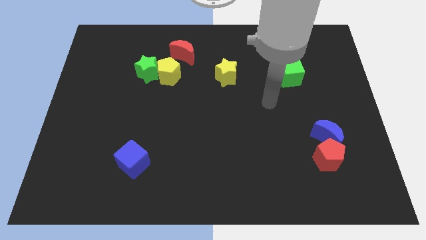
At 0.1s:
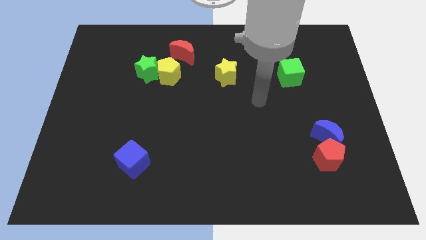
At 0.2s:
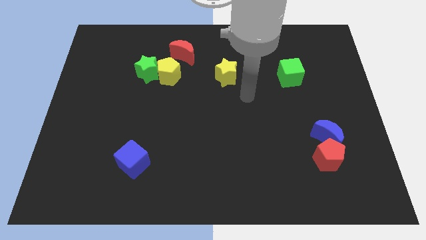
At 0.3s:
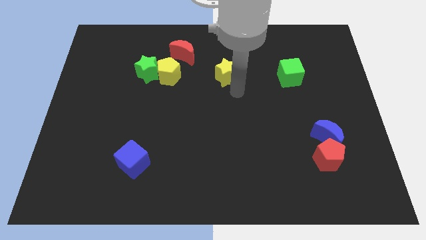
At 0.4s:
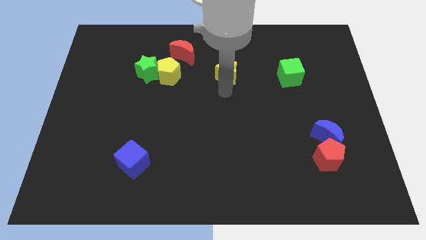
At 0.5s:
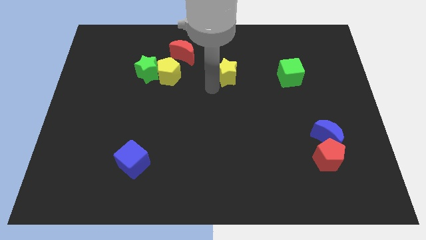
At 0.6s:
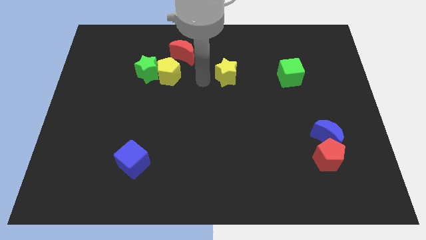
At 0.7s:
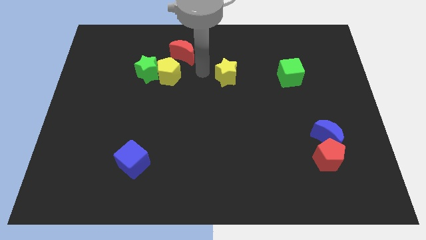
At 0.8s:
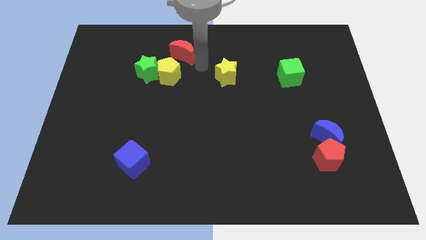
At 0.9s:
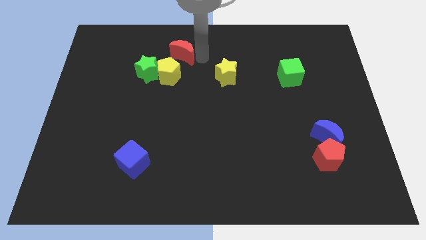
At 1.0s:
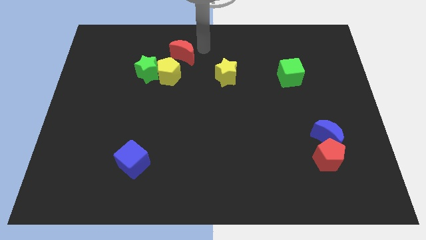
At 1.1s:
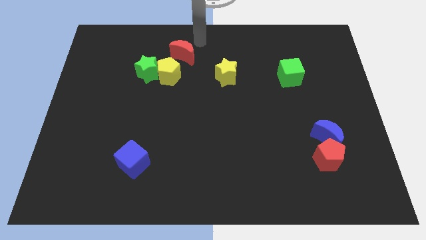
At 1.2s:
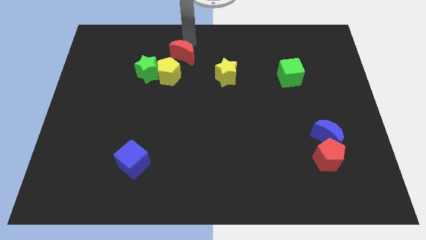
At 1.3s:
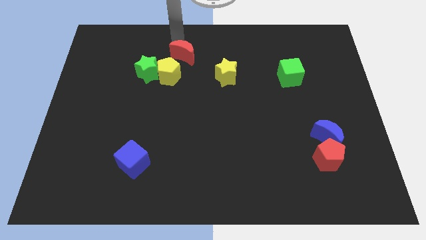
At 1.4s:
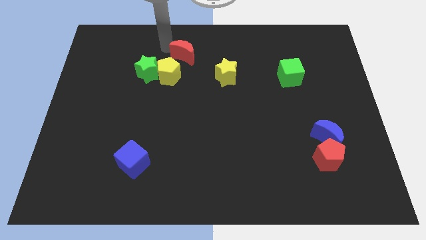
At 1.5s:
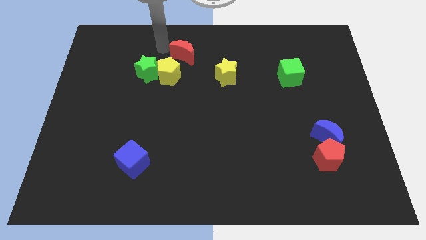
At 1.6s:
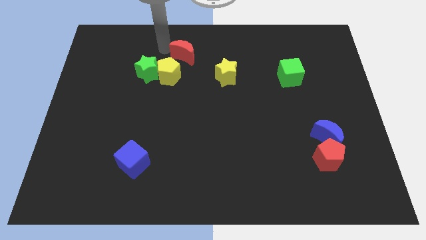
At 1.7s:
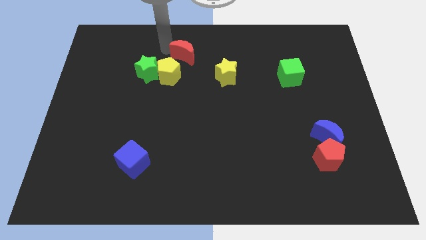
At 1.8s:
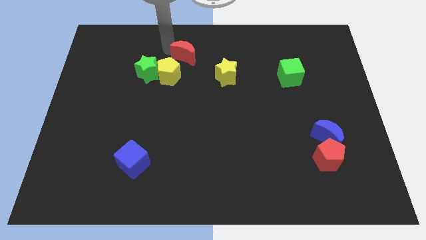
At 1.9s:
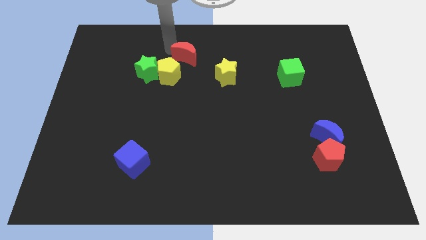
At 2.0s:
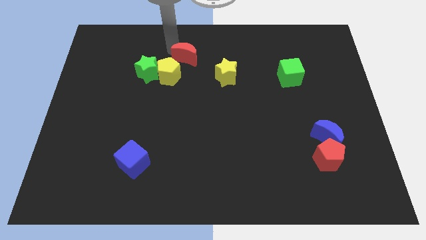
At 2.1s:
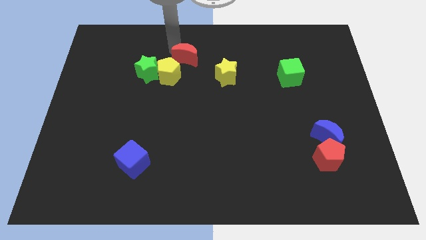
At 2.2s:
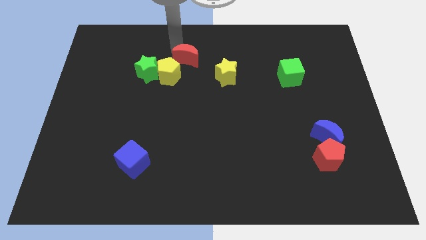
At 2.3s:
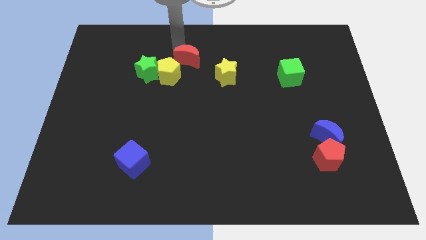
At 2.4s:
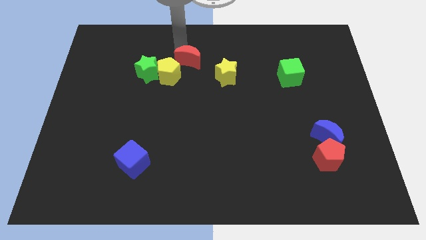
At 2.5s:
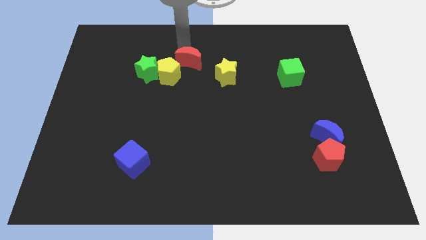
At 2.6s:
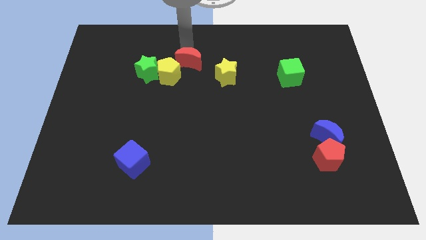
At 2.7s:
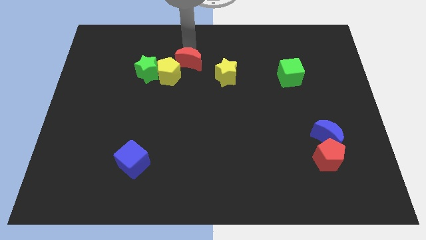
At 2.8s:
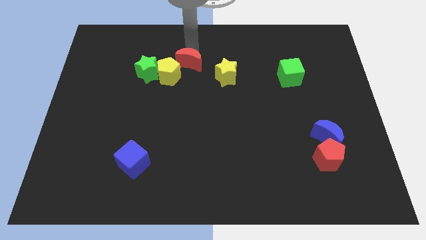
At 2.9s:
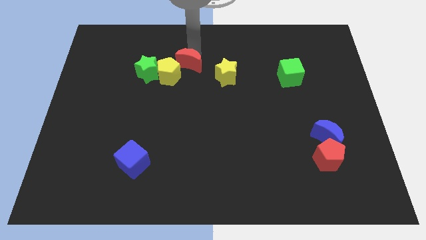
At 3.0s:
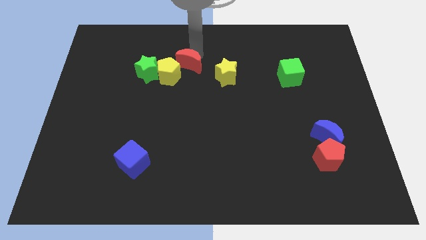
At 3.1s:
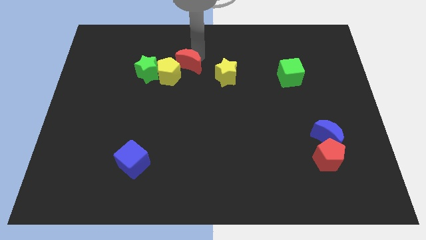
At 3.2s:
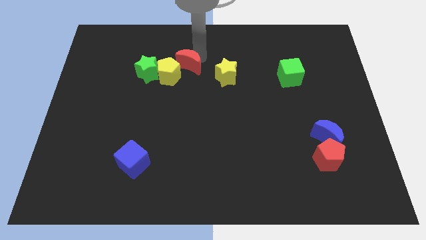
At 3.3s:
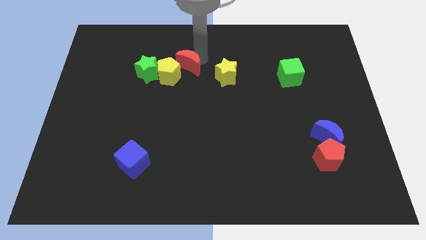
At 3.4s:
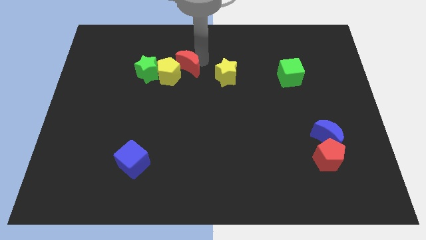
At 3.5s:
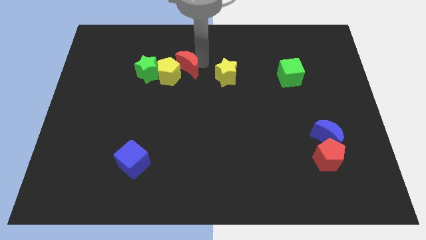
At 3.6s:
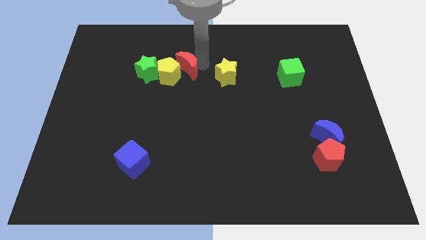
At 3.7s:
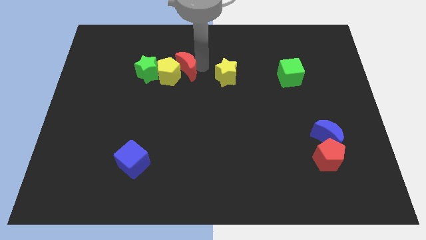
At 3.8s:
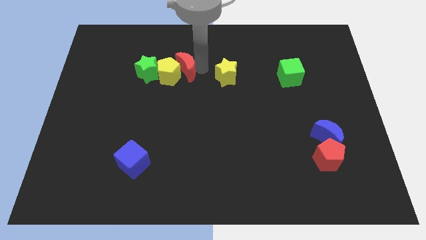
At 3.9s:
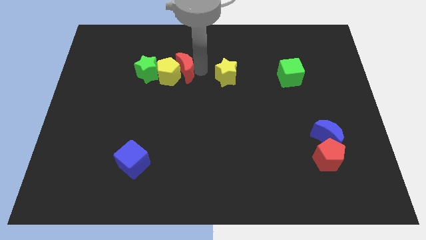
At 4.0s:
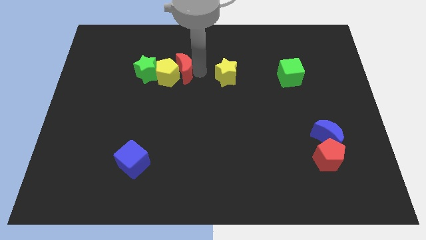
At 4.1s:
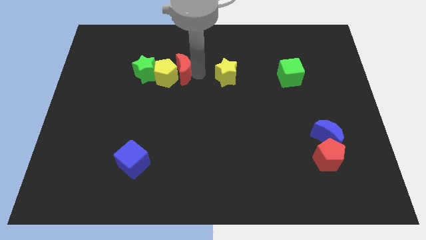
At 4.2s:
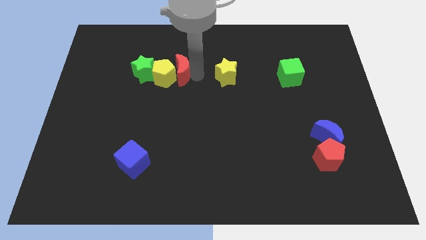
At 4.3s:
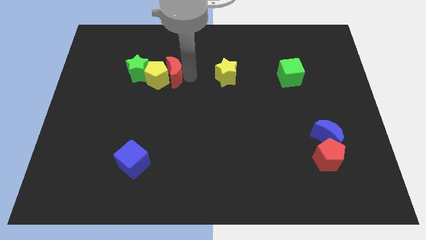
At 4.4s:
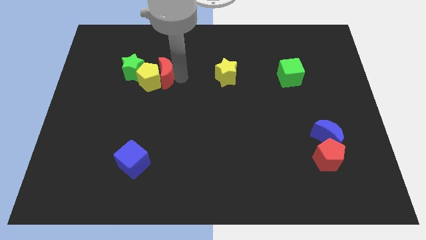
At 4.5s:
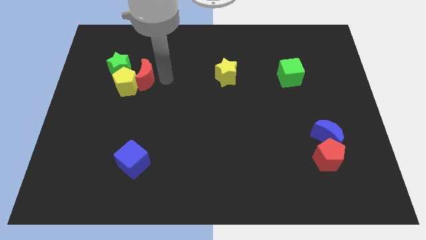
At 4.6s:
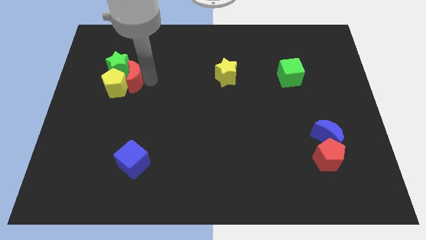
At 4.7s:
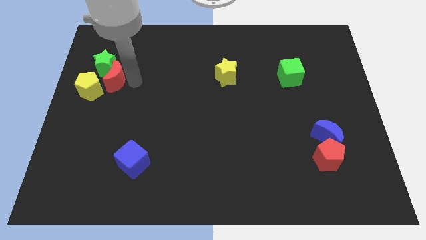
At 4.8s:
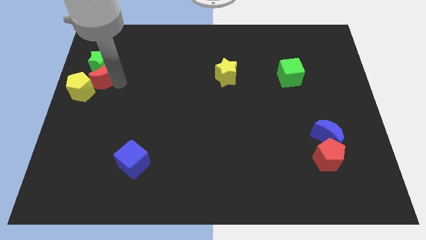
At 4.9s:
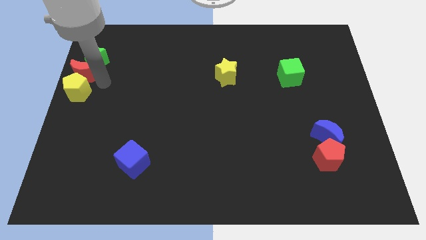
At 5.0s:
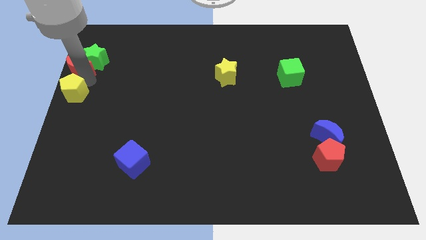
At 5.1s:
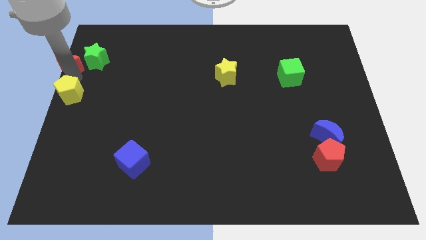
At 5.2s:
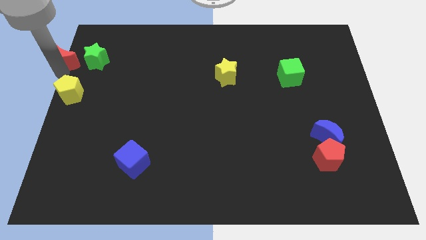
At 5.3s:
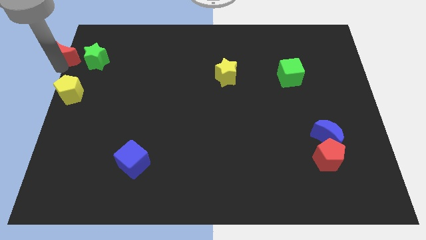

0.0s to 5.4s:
move the red moon to the top left

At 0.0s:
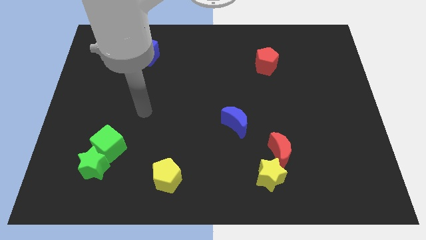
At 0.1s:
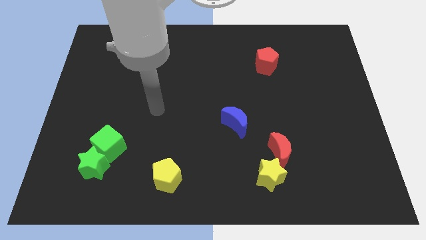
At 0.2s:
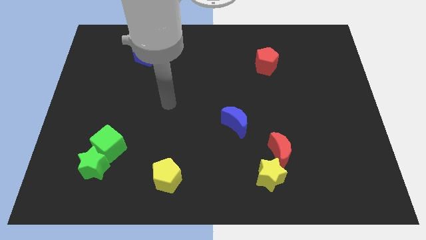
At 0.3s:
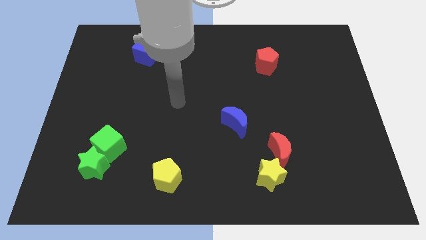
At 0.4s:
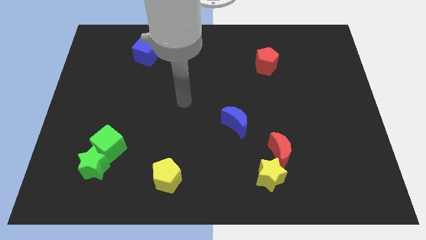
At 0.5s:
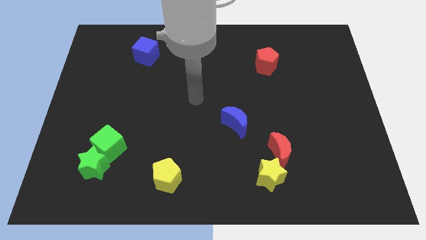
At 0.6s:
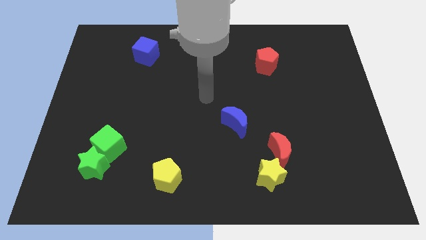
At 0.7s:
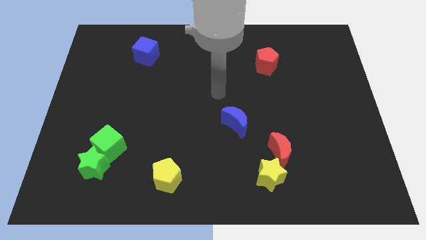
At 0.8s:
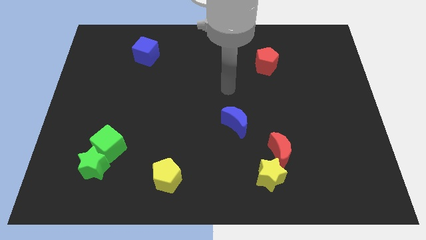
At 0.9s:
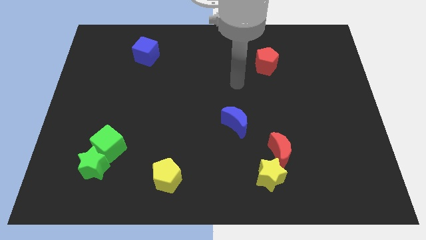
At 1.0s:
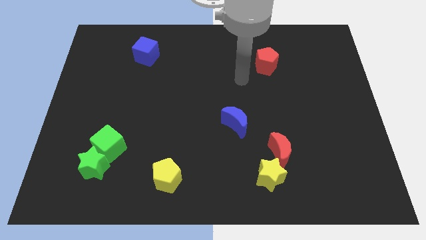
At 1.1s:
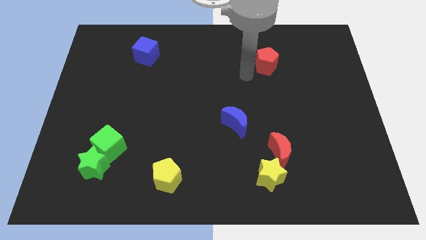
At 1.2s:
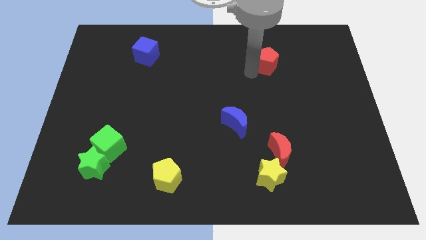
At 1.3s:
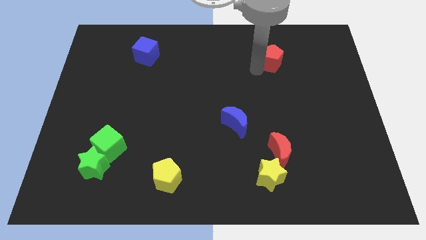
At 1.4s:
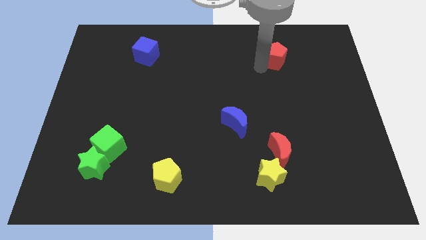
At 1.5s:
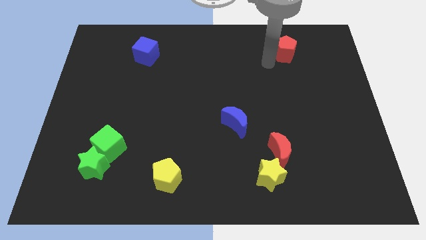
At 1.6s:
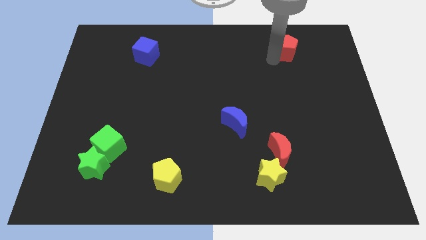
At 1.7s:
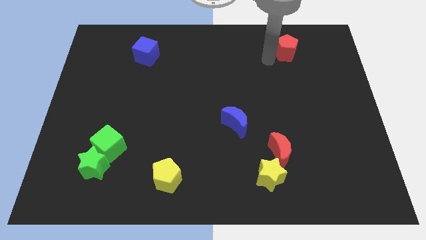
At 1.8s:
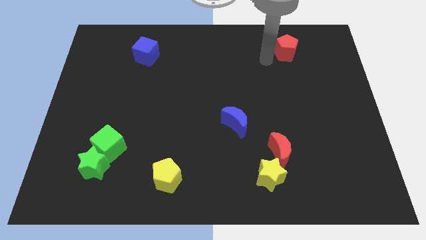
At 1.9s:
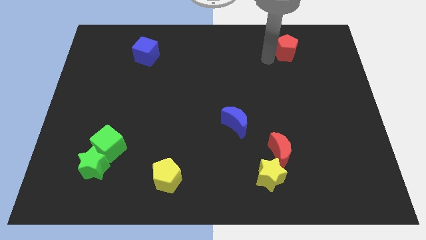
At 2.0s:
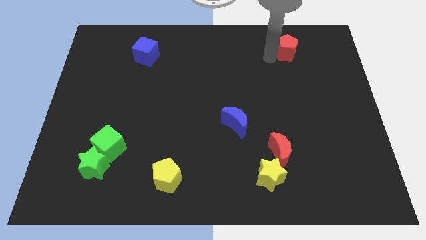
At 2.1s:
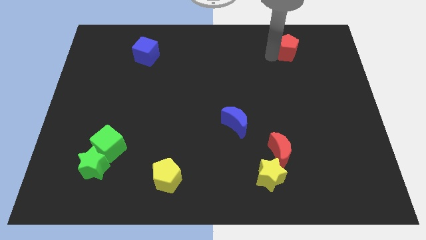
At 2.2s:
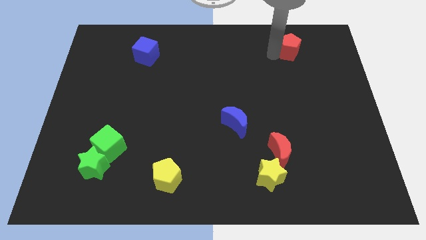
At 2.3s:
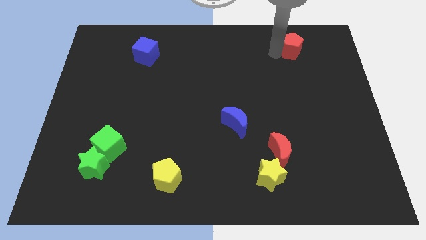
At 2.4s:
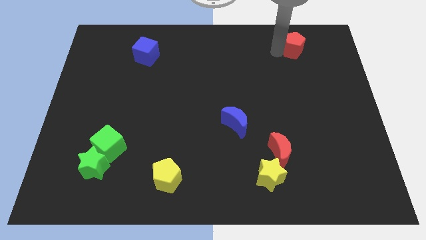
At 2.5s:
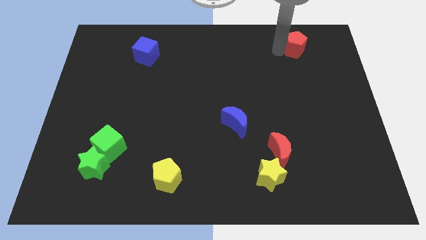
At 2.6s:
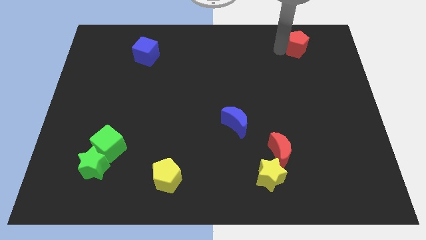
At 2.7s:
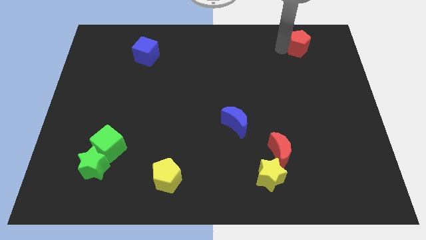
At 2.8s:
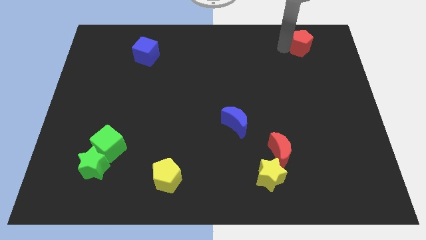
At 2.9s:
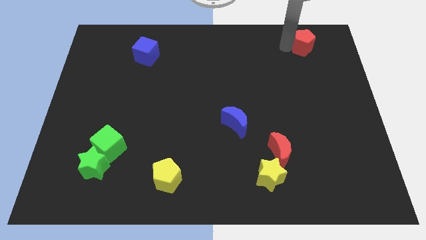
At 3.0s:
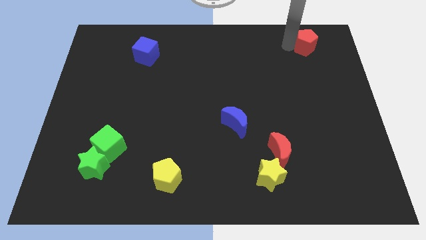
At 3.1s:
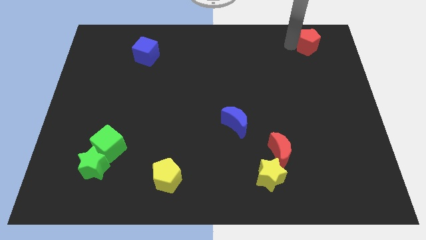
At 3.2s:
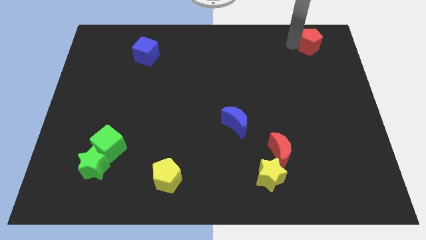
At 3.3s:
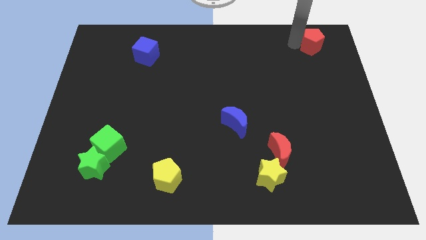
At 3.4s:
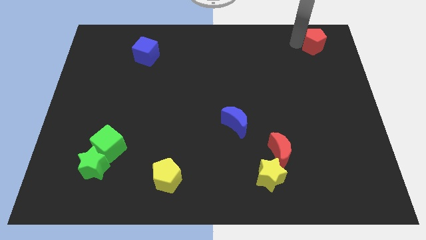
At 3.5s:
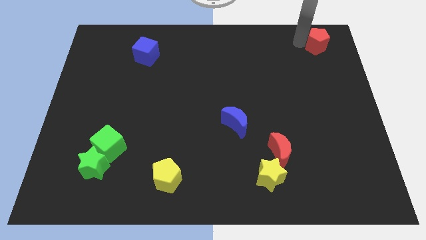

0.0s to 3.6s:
push the red pentagon to the top right of the board
